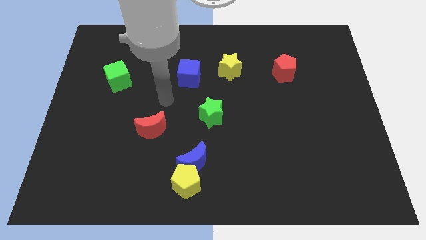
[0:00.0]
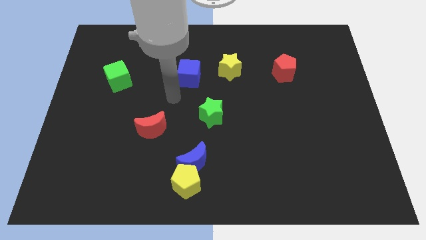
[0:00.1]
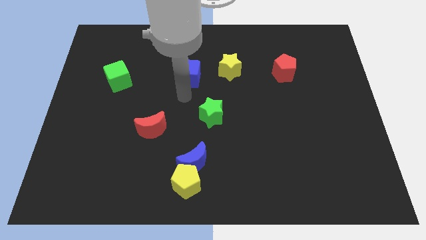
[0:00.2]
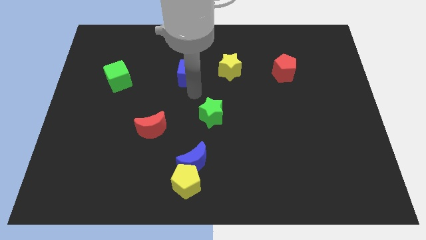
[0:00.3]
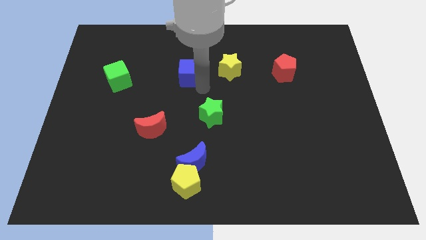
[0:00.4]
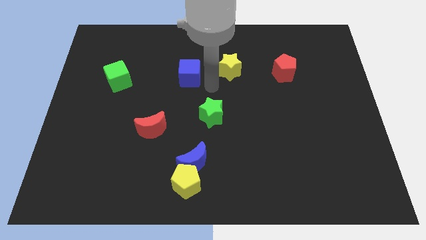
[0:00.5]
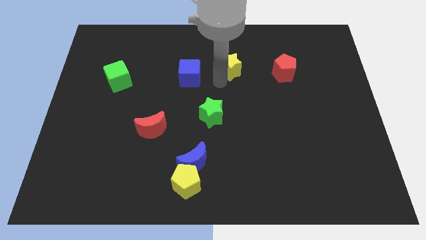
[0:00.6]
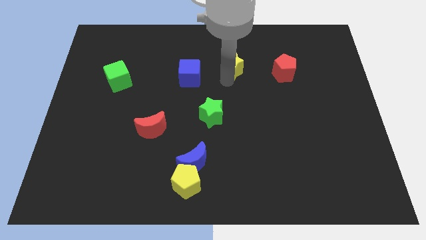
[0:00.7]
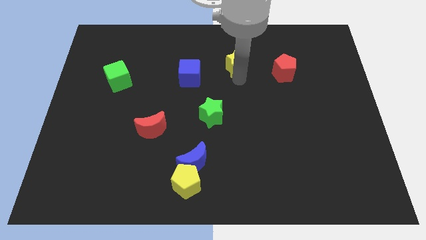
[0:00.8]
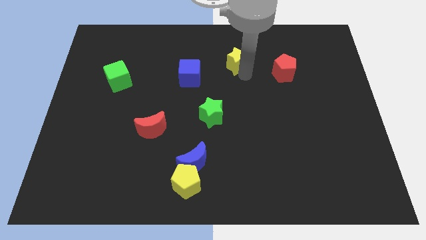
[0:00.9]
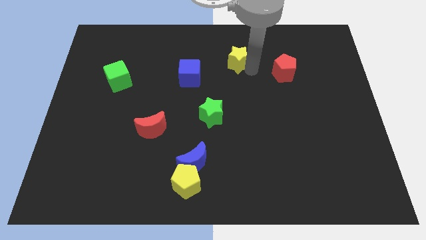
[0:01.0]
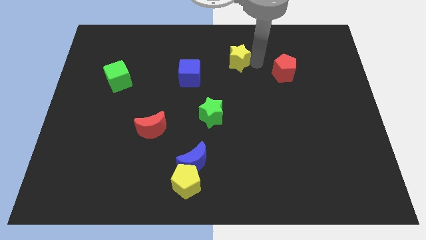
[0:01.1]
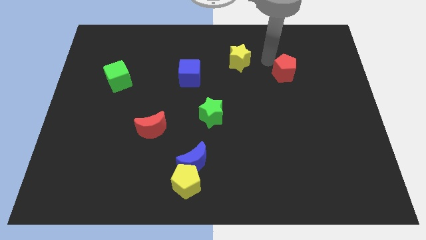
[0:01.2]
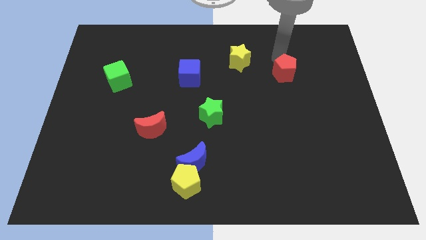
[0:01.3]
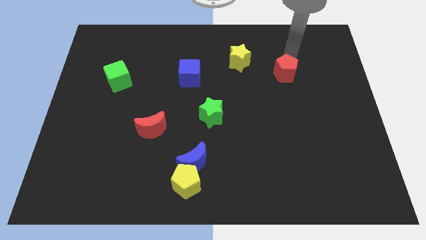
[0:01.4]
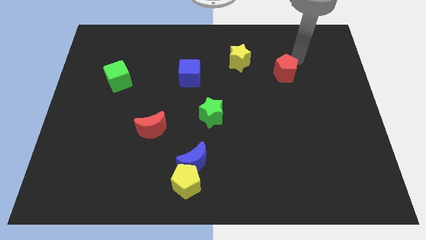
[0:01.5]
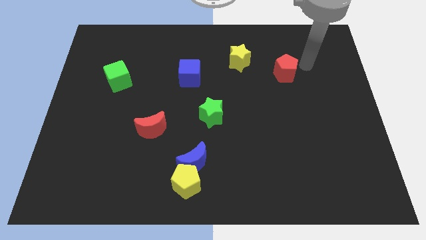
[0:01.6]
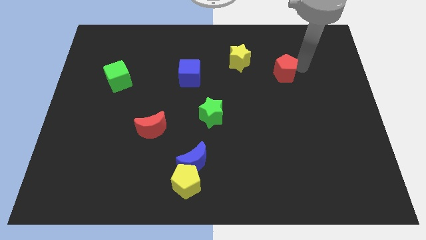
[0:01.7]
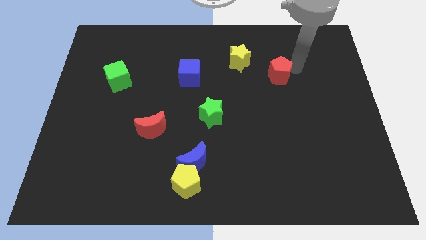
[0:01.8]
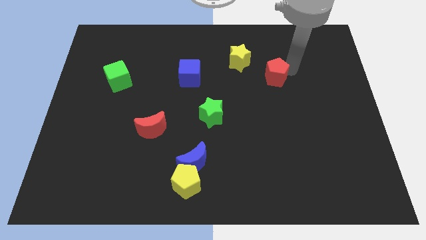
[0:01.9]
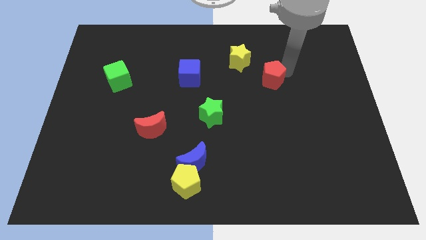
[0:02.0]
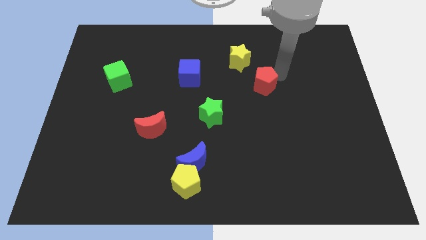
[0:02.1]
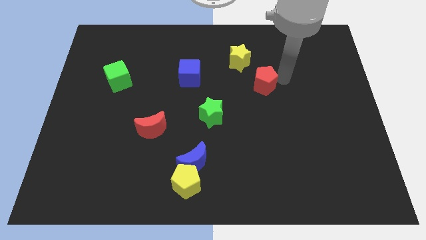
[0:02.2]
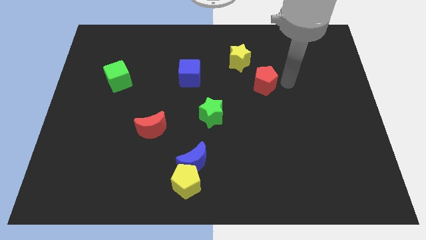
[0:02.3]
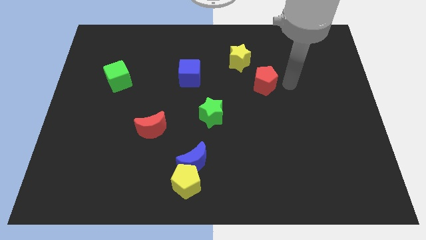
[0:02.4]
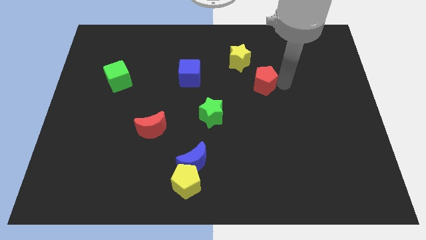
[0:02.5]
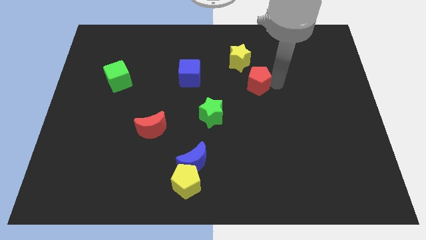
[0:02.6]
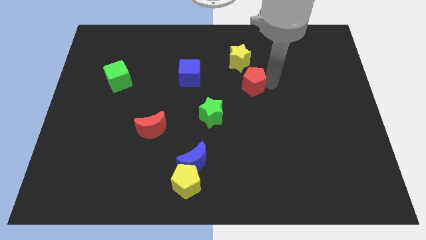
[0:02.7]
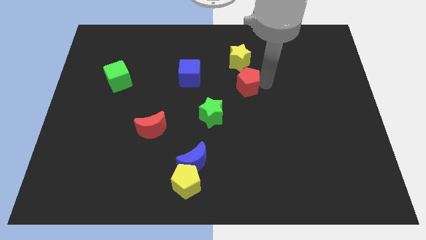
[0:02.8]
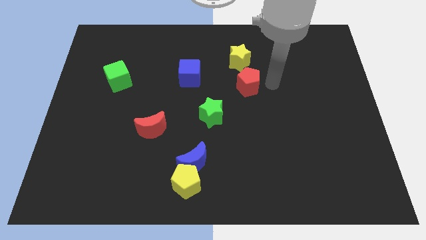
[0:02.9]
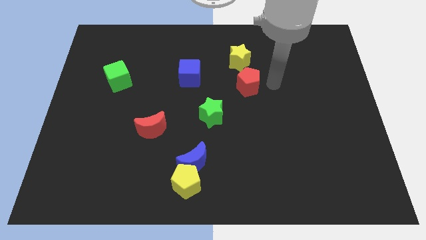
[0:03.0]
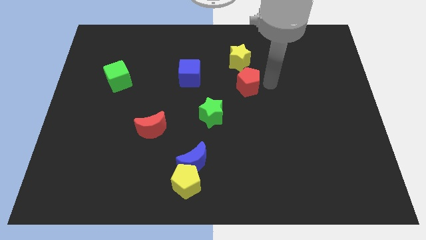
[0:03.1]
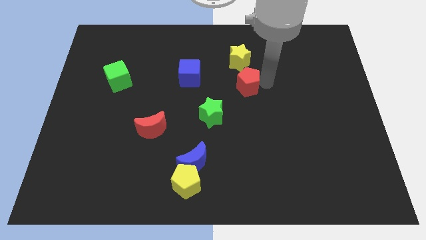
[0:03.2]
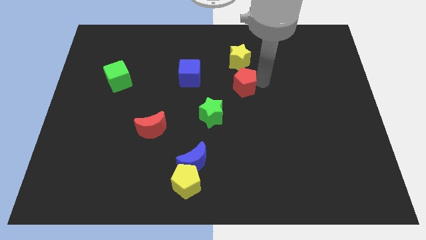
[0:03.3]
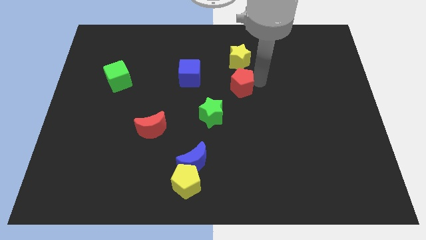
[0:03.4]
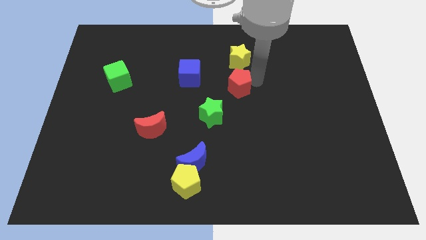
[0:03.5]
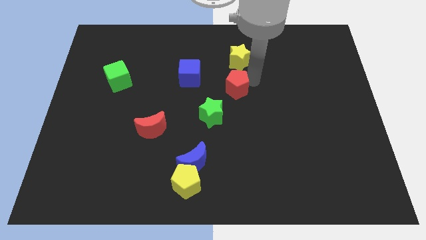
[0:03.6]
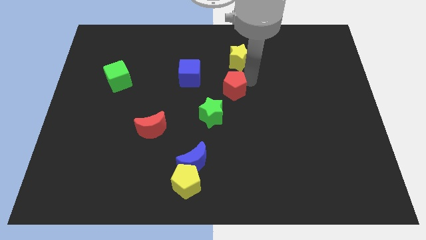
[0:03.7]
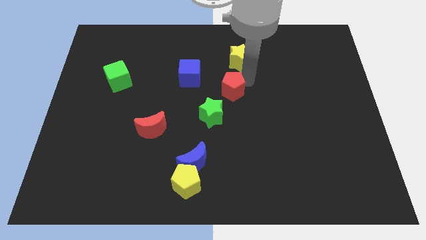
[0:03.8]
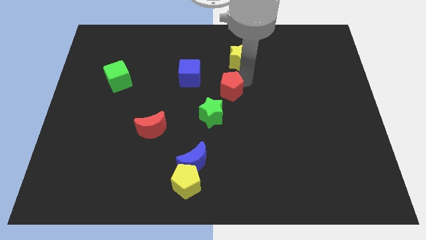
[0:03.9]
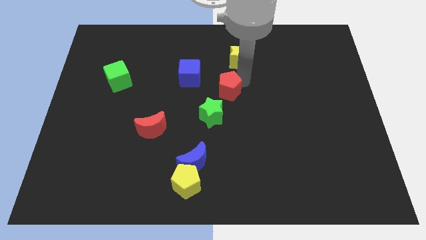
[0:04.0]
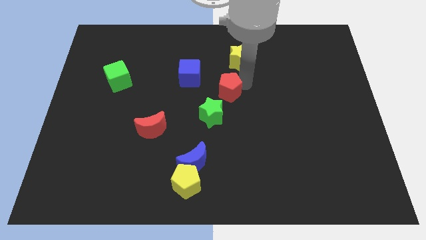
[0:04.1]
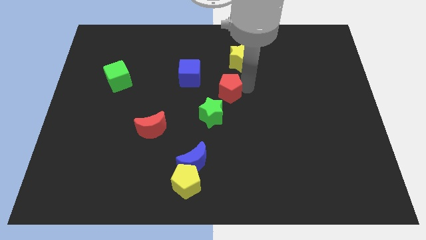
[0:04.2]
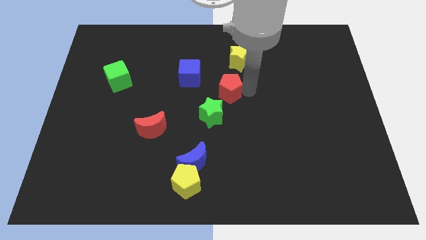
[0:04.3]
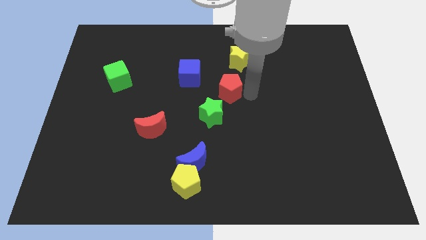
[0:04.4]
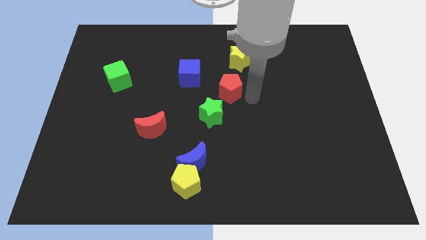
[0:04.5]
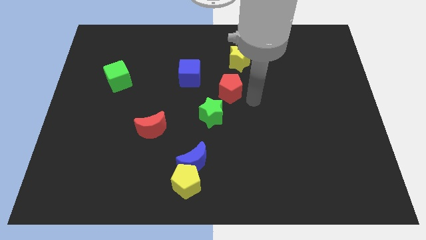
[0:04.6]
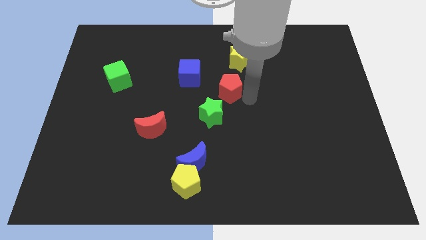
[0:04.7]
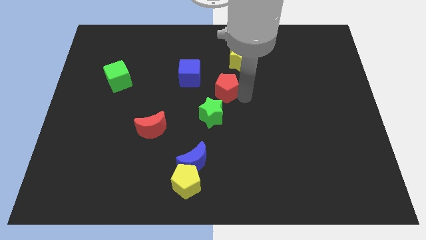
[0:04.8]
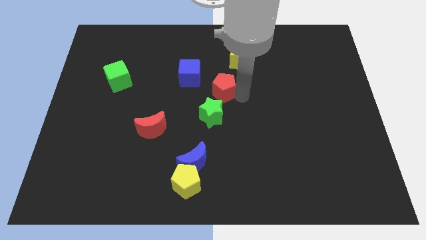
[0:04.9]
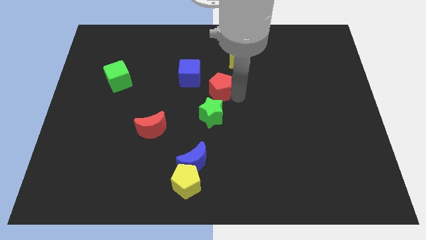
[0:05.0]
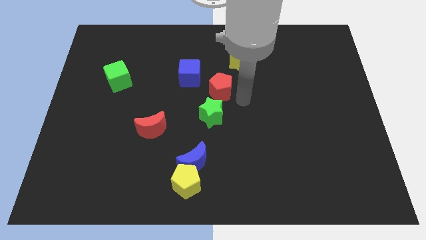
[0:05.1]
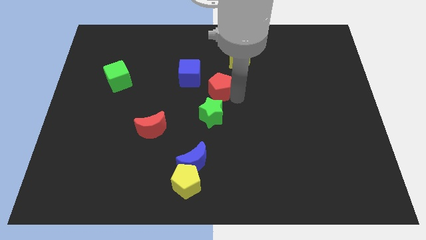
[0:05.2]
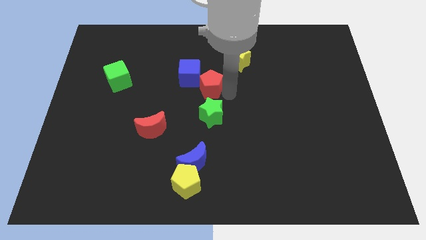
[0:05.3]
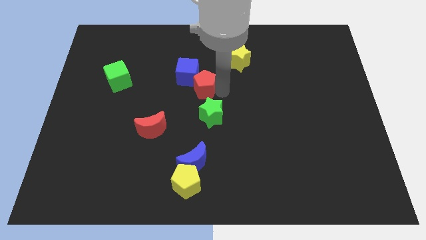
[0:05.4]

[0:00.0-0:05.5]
push the red pentagon close to the blue cube

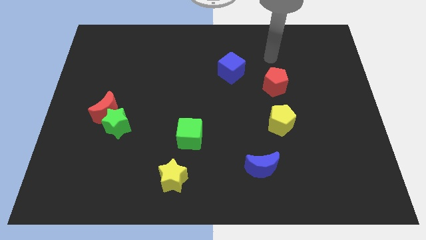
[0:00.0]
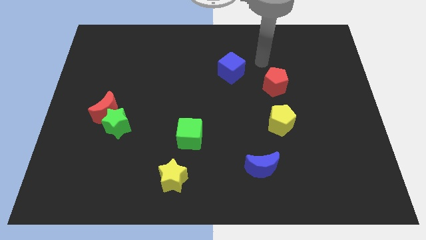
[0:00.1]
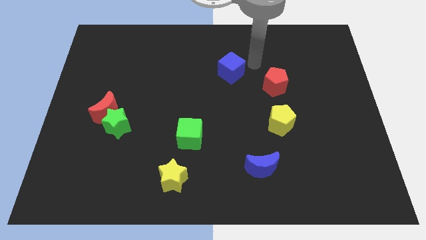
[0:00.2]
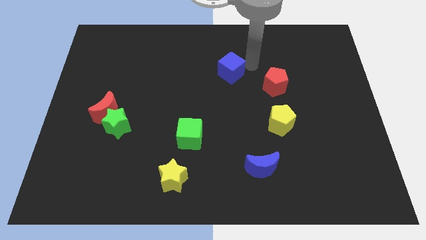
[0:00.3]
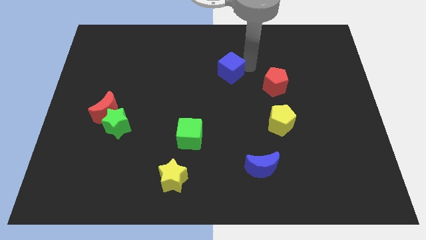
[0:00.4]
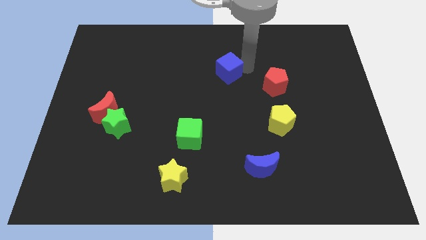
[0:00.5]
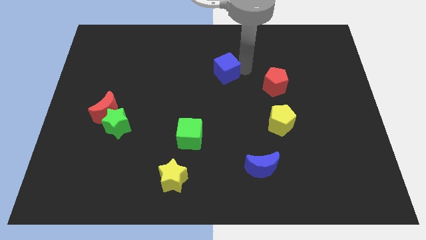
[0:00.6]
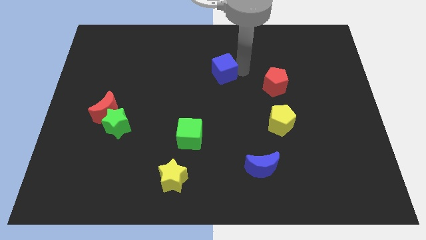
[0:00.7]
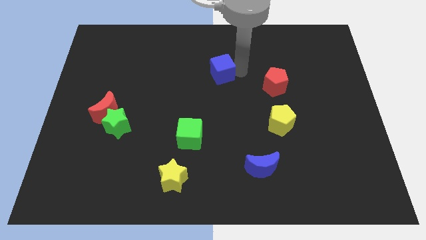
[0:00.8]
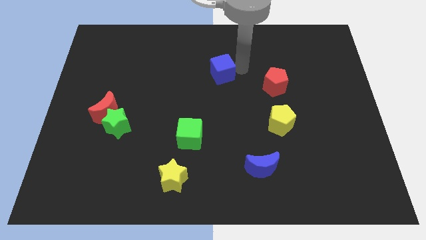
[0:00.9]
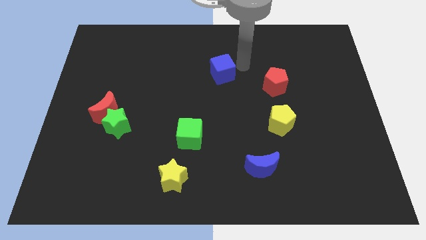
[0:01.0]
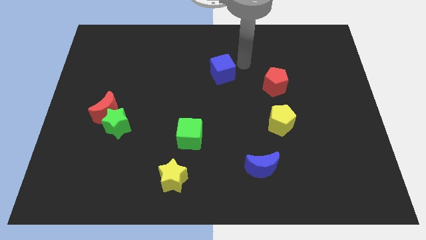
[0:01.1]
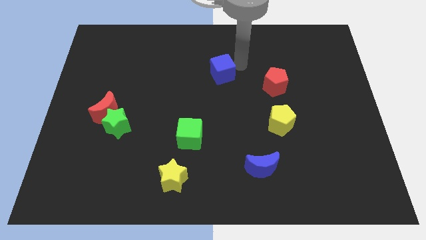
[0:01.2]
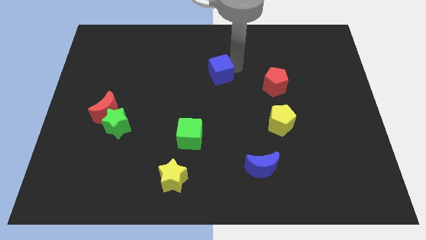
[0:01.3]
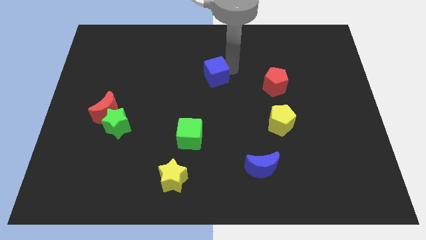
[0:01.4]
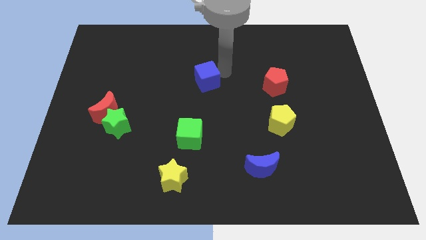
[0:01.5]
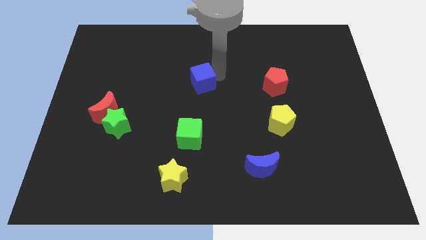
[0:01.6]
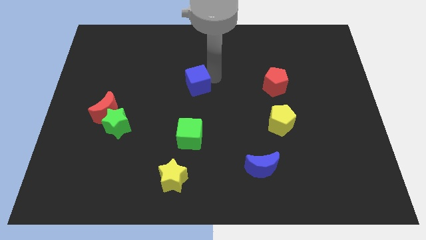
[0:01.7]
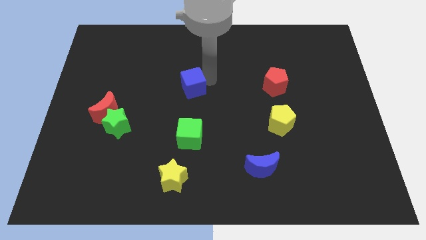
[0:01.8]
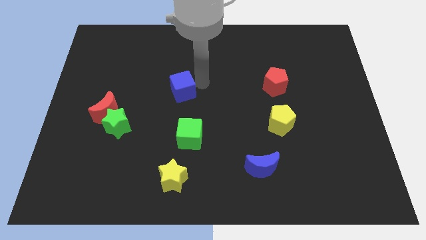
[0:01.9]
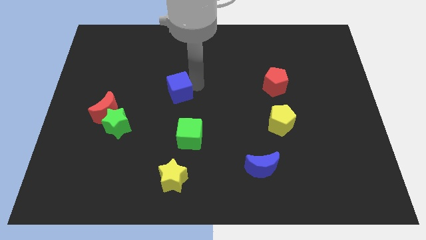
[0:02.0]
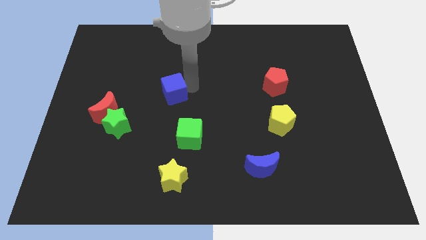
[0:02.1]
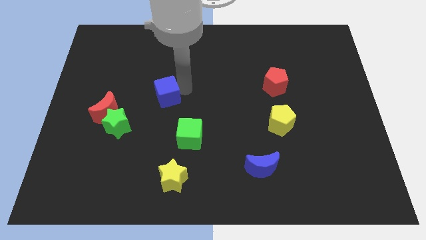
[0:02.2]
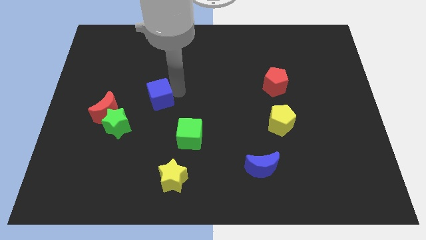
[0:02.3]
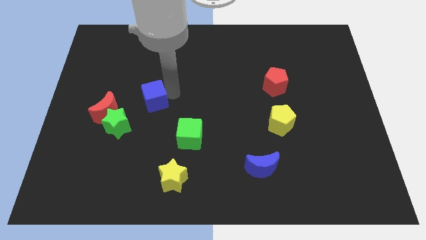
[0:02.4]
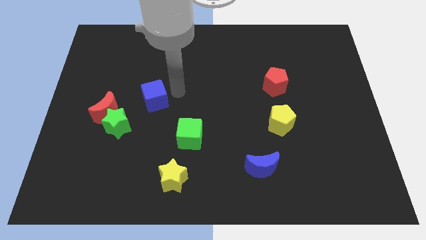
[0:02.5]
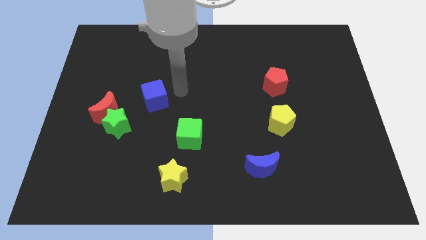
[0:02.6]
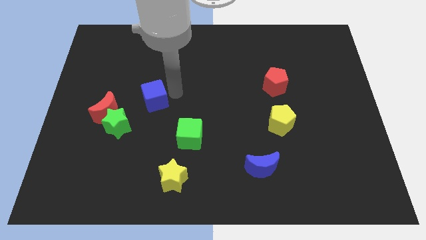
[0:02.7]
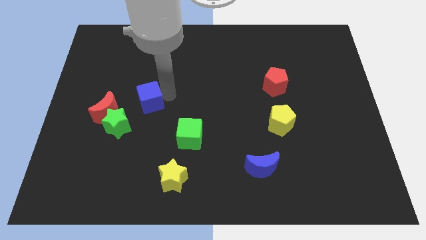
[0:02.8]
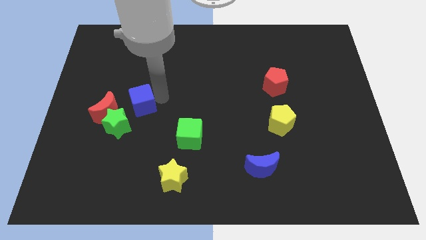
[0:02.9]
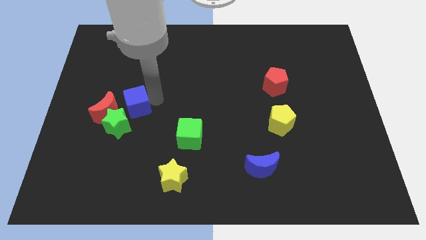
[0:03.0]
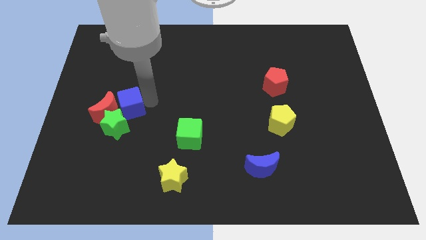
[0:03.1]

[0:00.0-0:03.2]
push the blue cube next to the red moon
